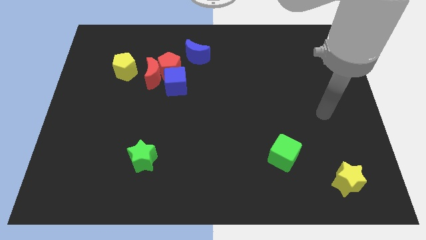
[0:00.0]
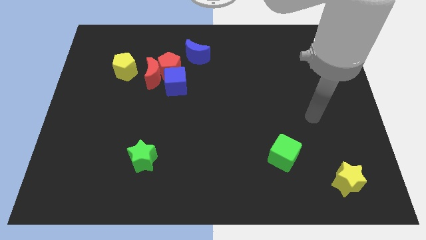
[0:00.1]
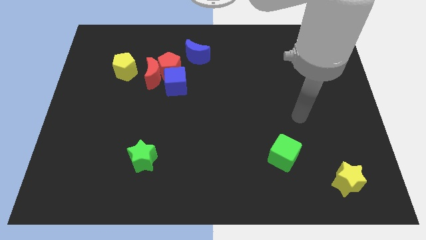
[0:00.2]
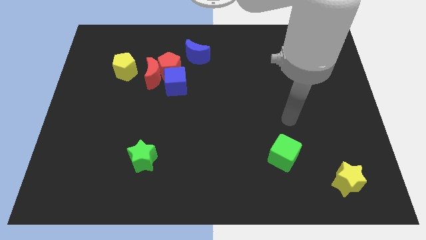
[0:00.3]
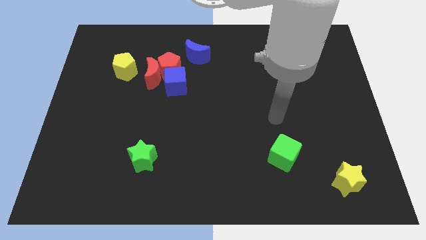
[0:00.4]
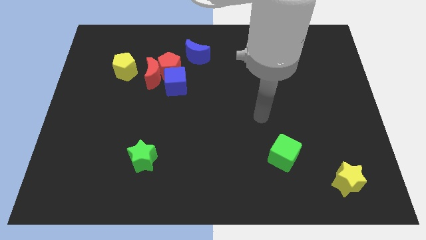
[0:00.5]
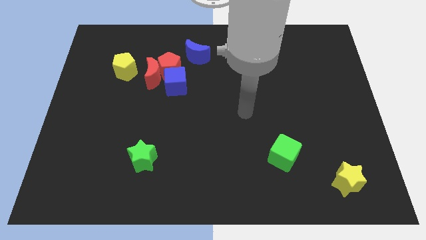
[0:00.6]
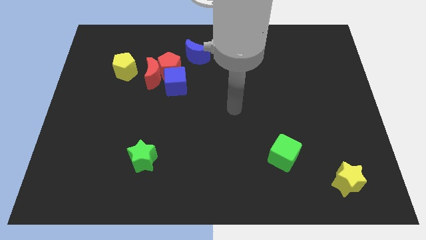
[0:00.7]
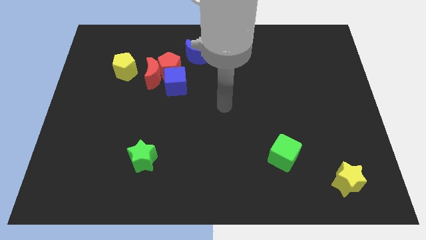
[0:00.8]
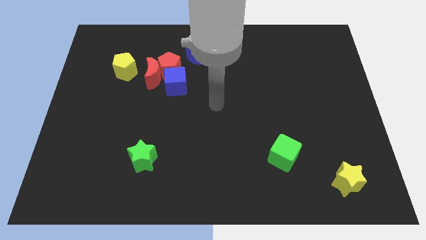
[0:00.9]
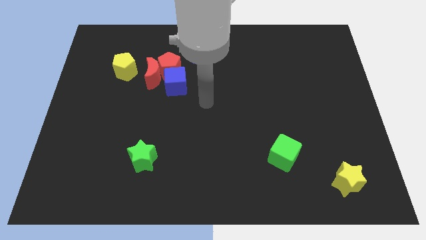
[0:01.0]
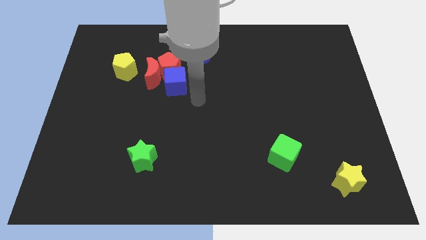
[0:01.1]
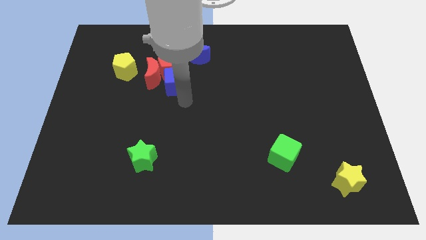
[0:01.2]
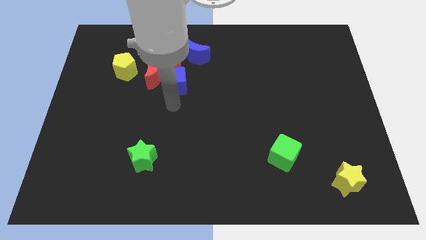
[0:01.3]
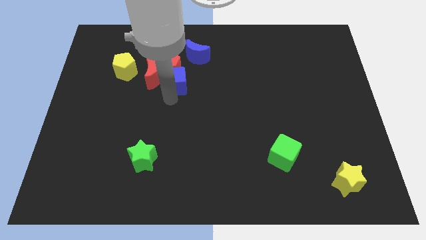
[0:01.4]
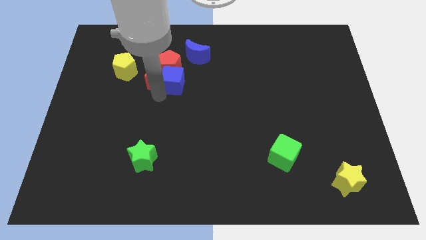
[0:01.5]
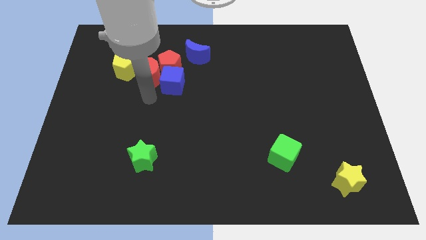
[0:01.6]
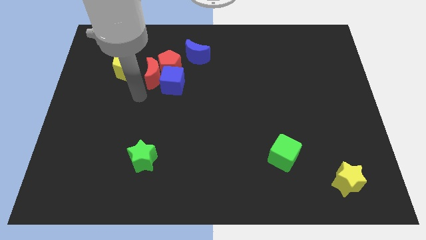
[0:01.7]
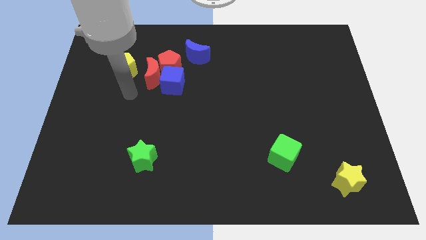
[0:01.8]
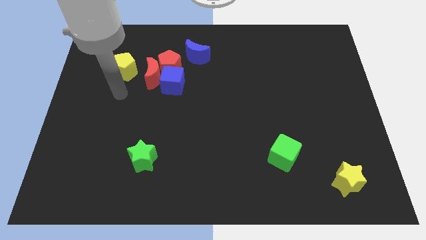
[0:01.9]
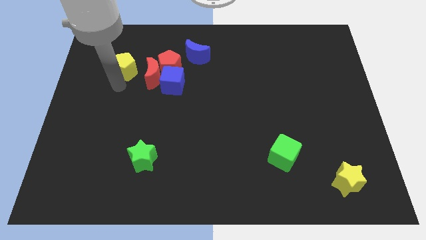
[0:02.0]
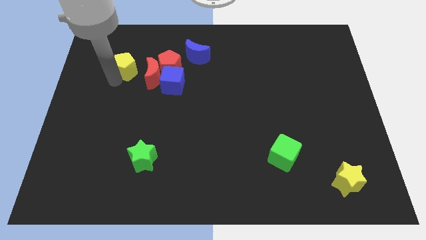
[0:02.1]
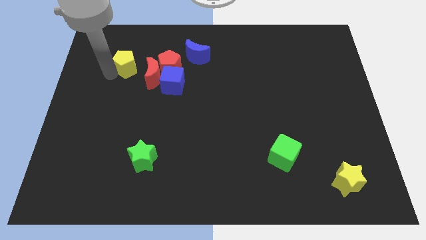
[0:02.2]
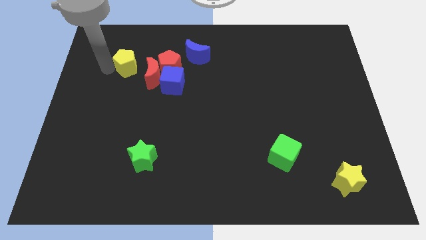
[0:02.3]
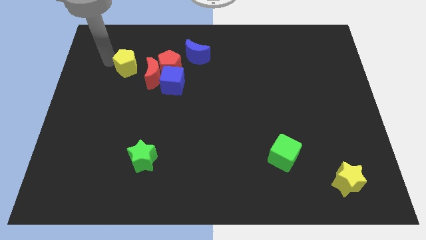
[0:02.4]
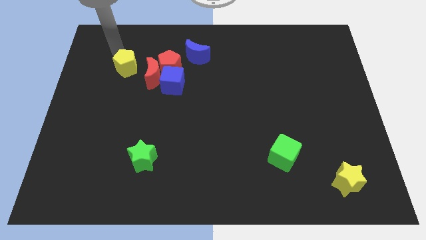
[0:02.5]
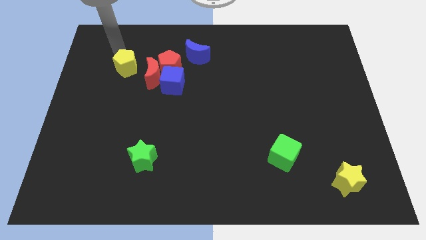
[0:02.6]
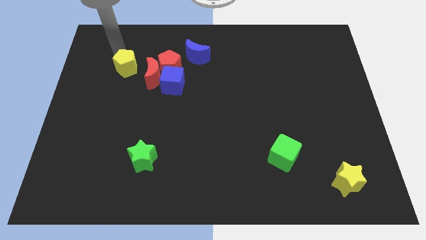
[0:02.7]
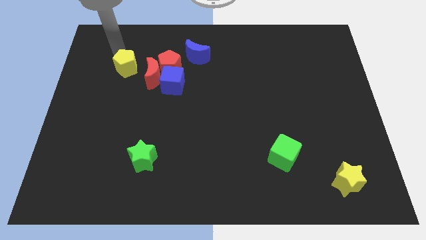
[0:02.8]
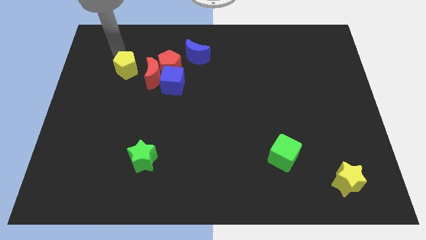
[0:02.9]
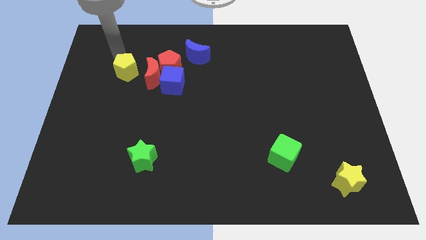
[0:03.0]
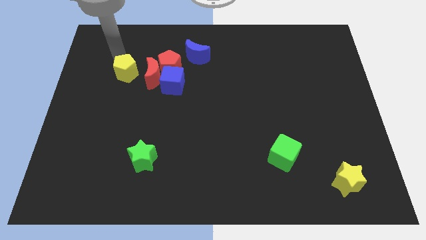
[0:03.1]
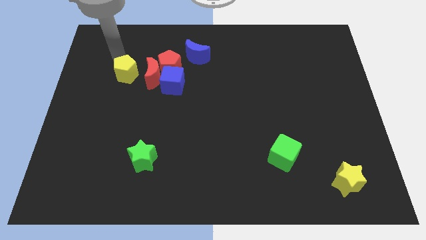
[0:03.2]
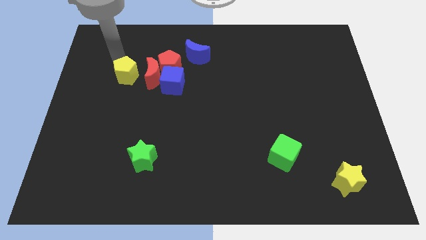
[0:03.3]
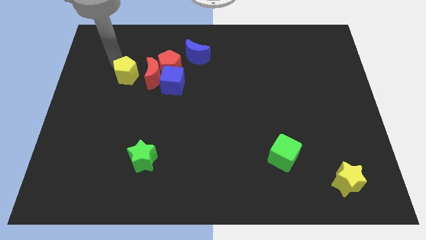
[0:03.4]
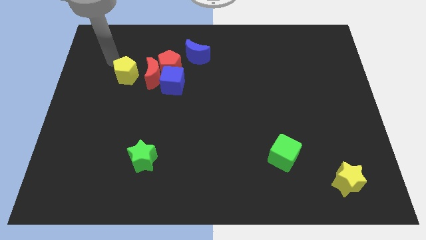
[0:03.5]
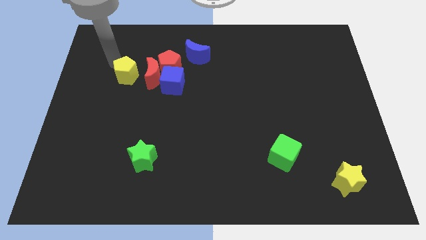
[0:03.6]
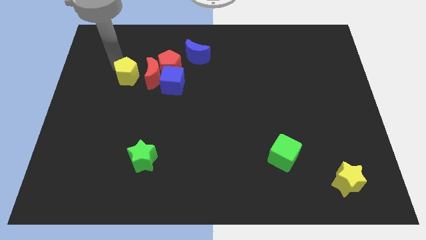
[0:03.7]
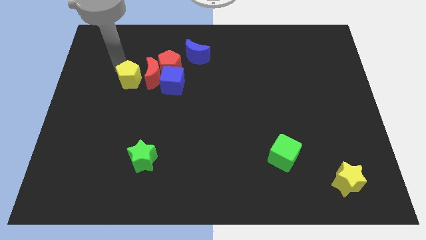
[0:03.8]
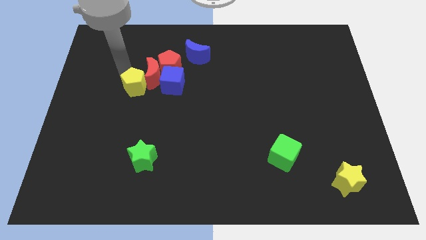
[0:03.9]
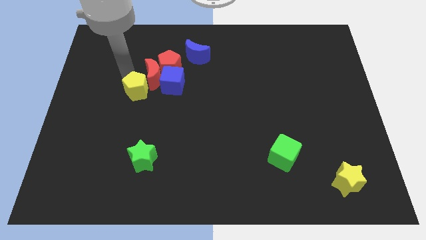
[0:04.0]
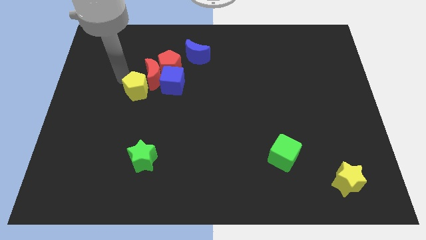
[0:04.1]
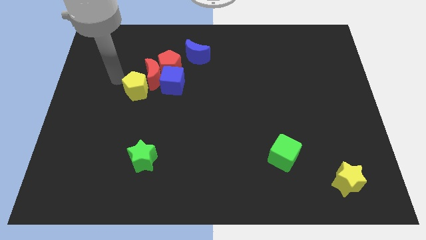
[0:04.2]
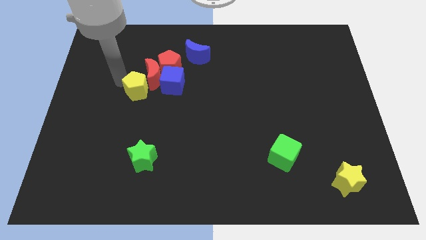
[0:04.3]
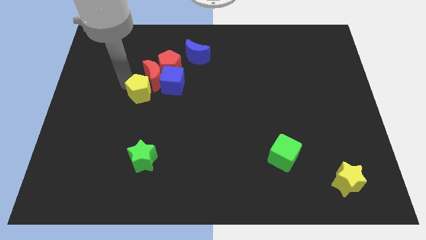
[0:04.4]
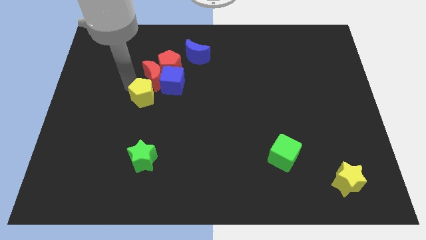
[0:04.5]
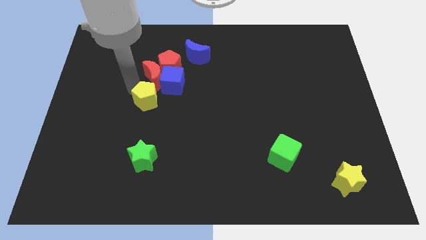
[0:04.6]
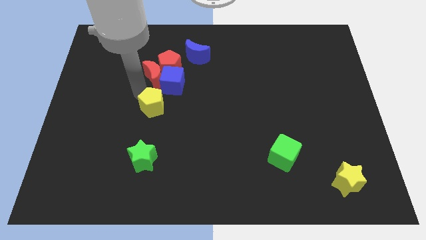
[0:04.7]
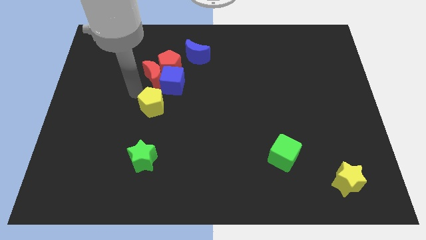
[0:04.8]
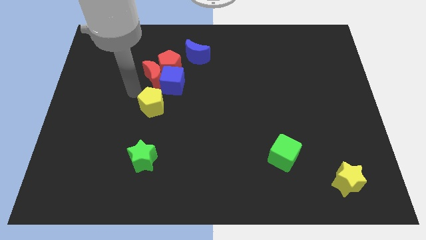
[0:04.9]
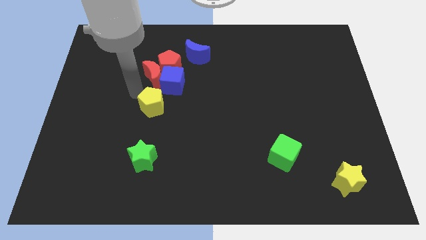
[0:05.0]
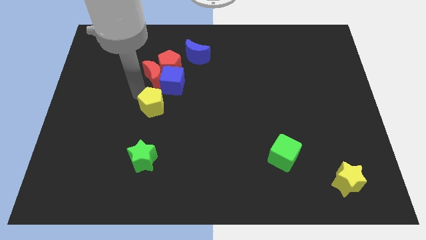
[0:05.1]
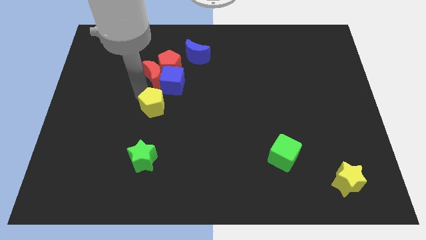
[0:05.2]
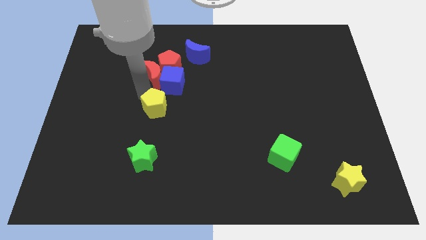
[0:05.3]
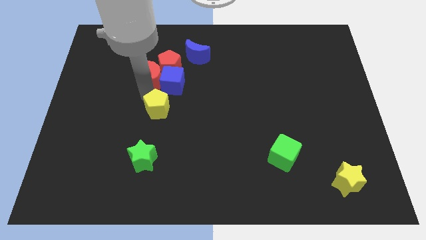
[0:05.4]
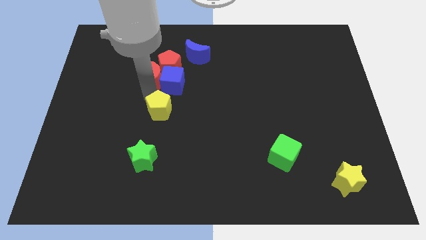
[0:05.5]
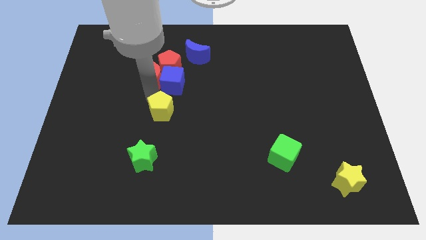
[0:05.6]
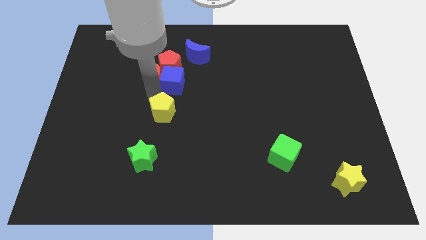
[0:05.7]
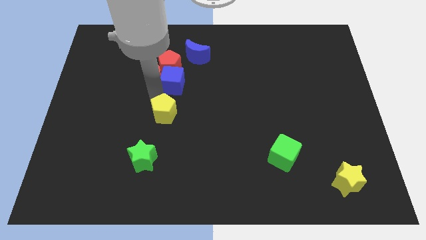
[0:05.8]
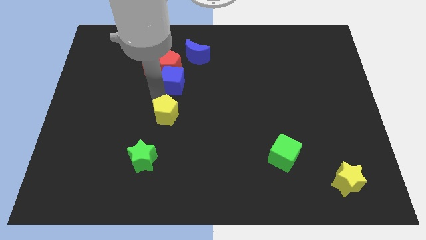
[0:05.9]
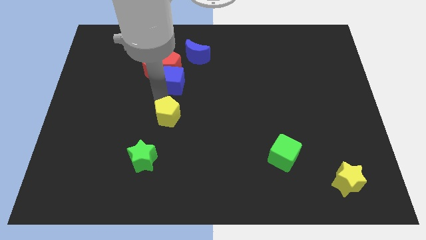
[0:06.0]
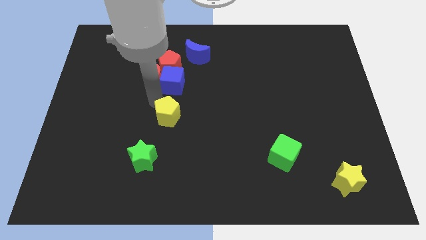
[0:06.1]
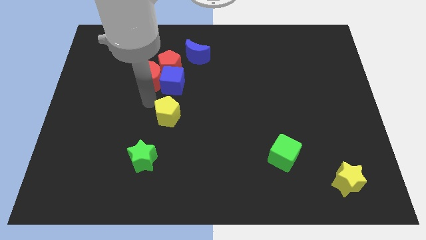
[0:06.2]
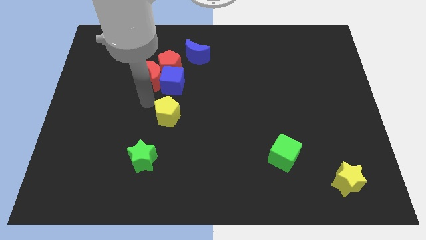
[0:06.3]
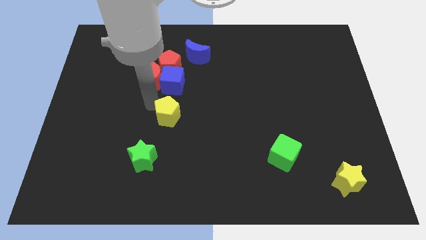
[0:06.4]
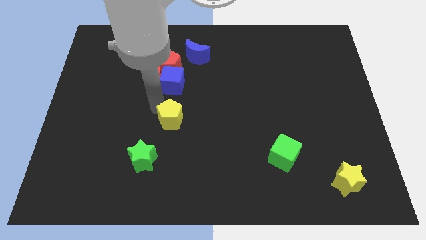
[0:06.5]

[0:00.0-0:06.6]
slide the yellow pentagon down and to the right

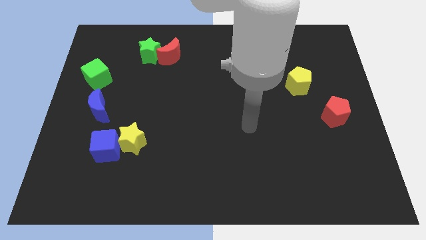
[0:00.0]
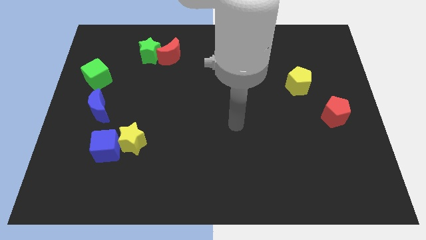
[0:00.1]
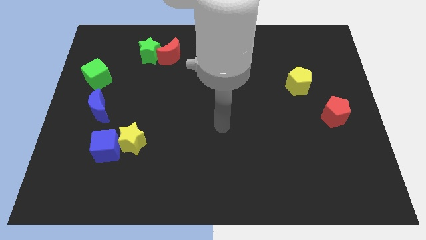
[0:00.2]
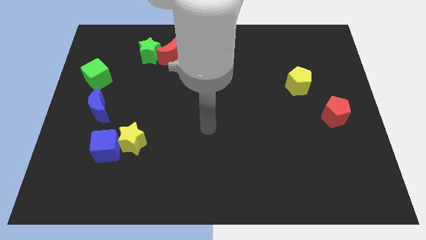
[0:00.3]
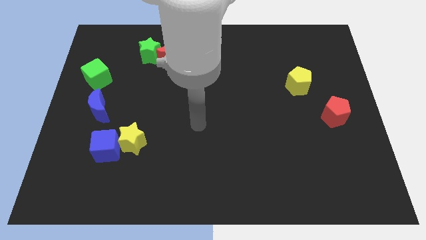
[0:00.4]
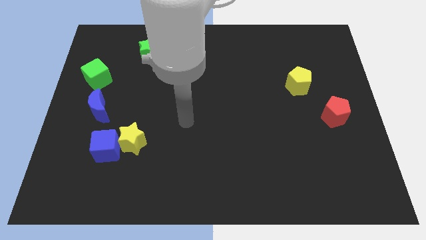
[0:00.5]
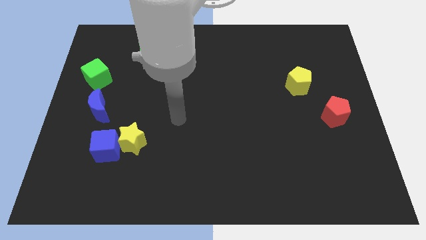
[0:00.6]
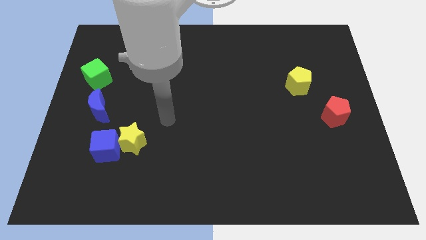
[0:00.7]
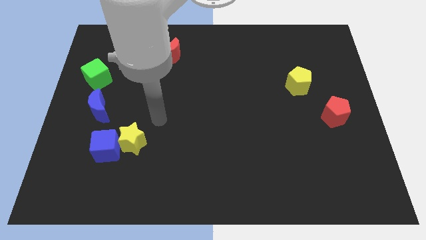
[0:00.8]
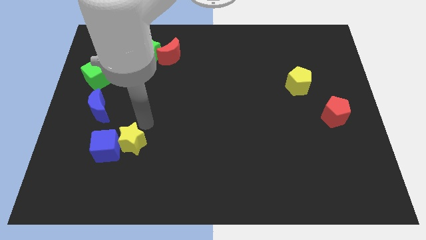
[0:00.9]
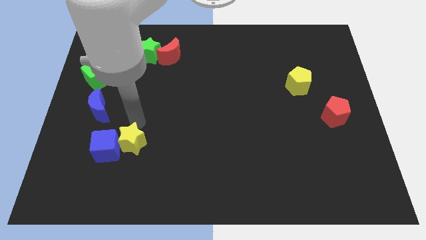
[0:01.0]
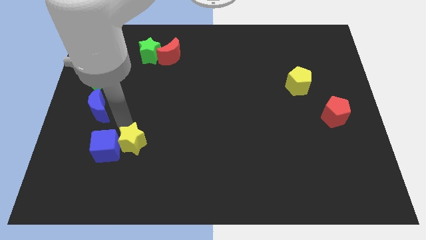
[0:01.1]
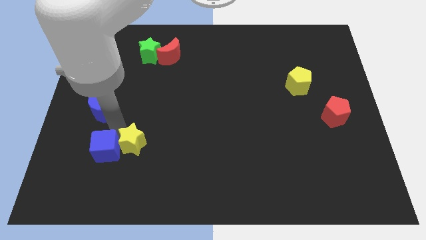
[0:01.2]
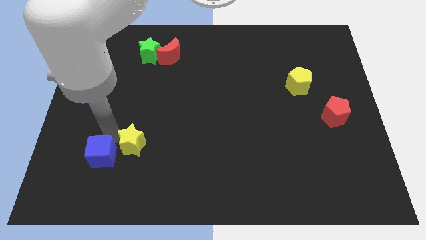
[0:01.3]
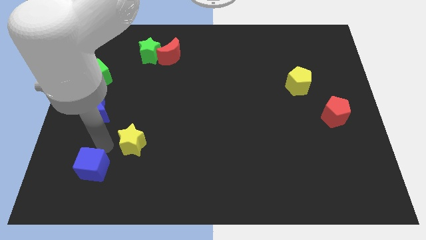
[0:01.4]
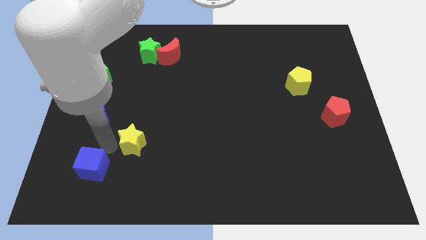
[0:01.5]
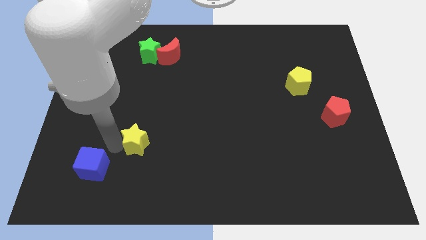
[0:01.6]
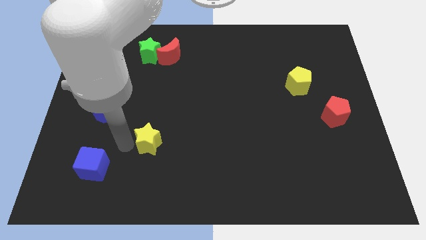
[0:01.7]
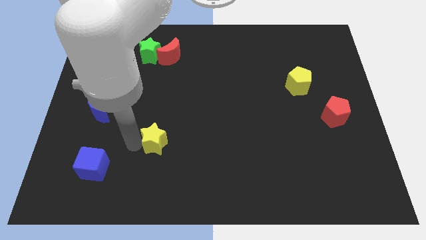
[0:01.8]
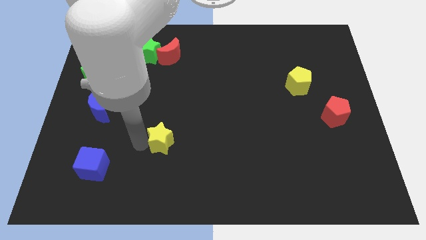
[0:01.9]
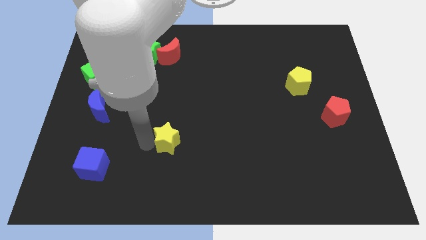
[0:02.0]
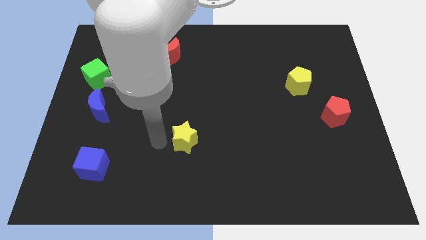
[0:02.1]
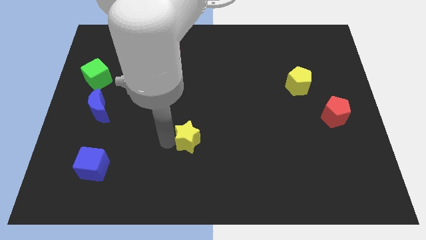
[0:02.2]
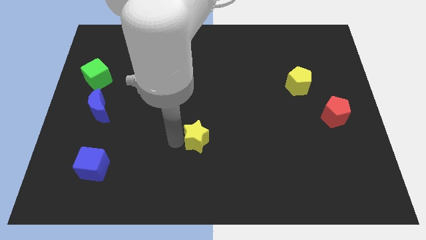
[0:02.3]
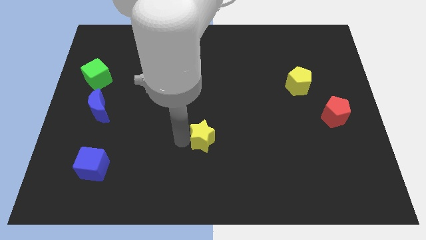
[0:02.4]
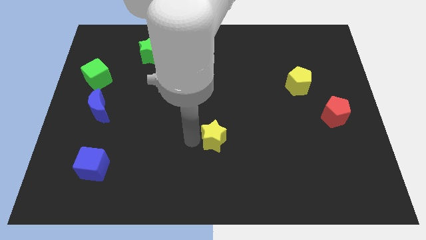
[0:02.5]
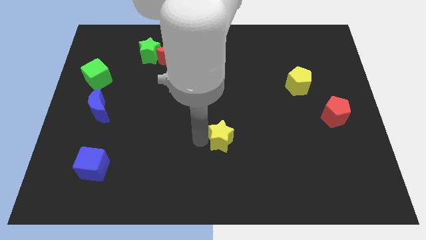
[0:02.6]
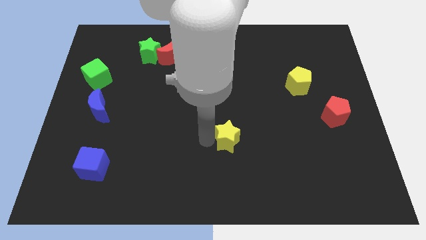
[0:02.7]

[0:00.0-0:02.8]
slide the yellow star right
